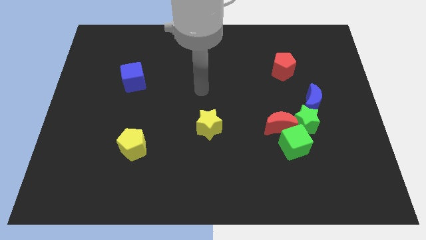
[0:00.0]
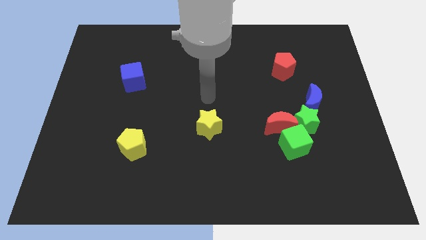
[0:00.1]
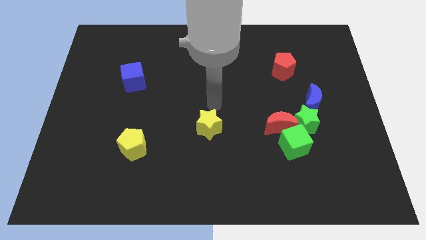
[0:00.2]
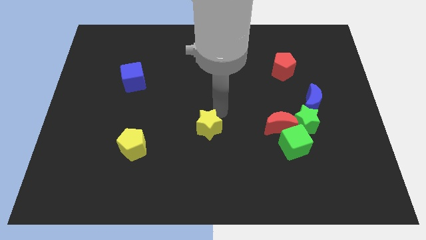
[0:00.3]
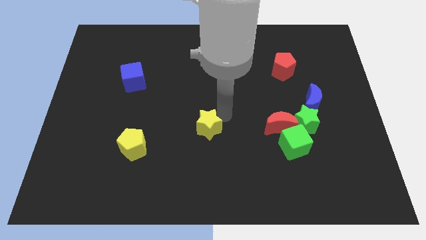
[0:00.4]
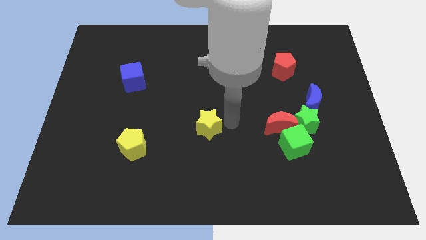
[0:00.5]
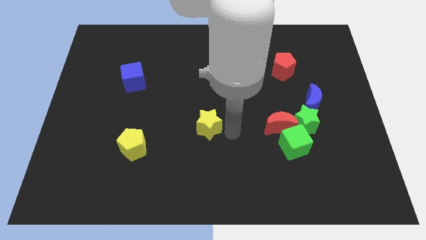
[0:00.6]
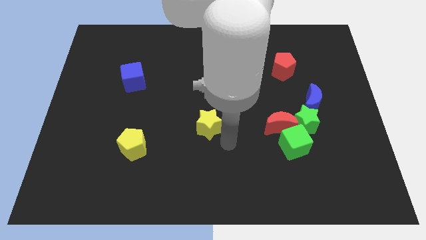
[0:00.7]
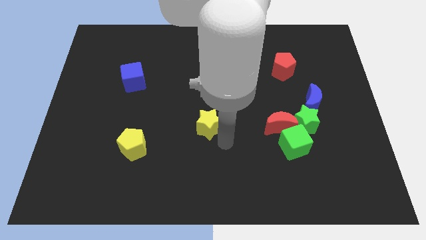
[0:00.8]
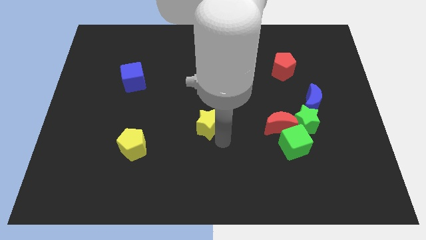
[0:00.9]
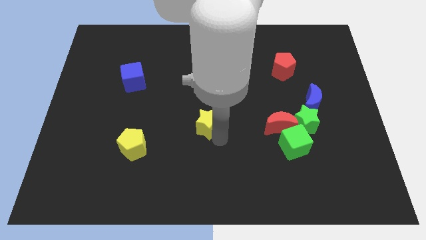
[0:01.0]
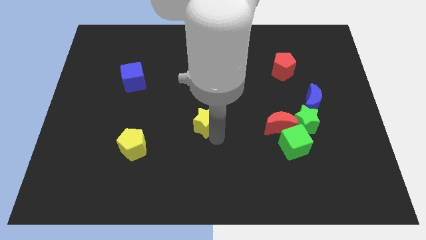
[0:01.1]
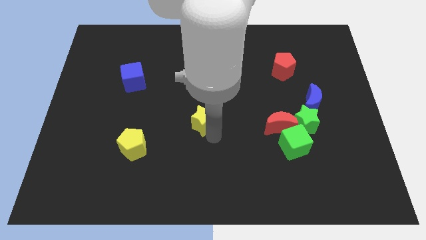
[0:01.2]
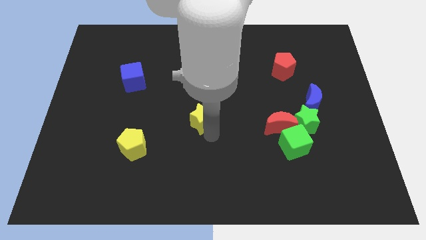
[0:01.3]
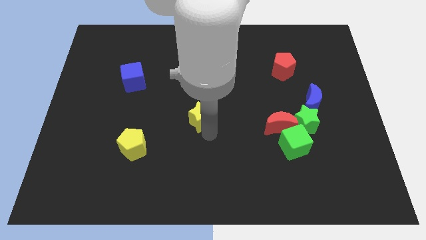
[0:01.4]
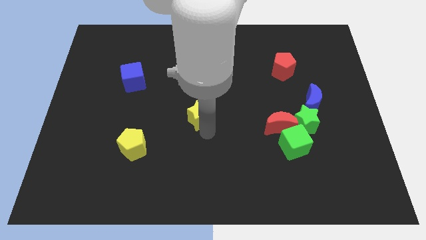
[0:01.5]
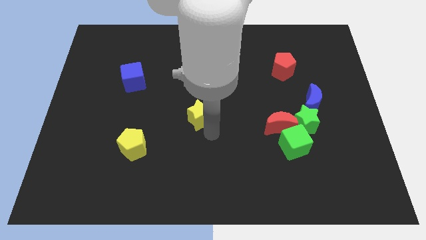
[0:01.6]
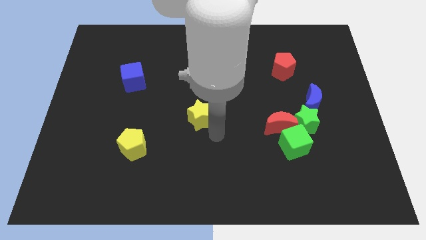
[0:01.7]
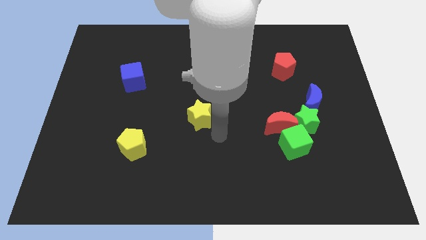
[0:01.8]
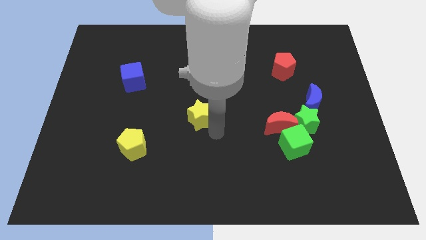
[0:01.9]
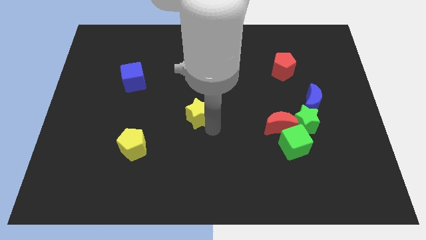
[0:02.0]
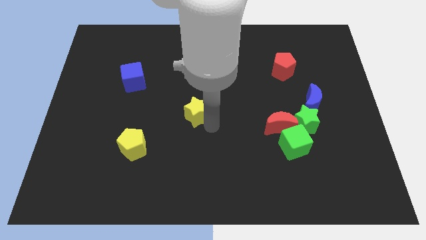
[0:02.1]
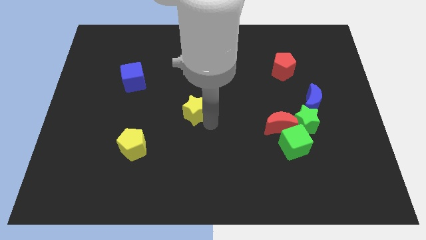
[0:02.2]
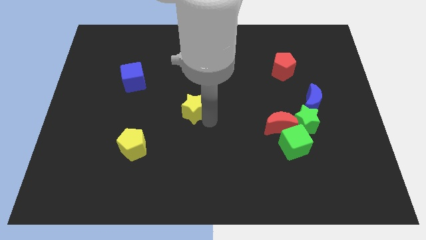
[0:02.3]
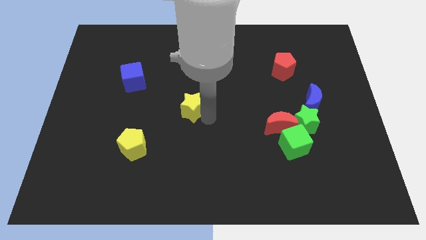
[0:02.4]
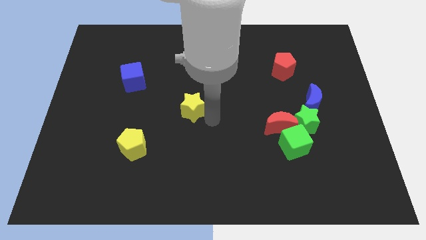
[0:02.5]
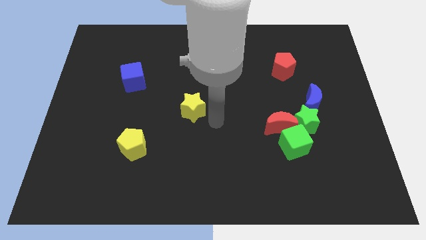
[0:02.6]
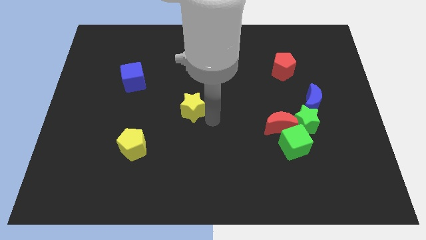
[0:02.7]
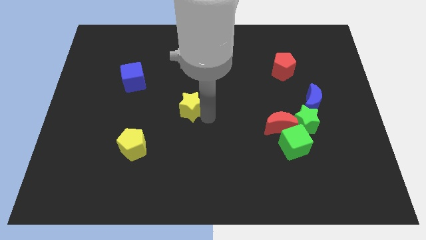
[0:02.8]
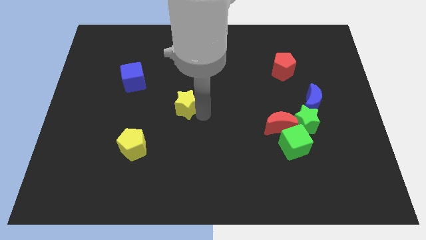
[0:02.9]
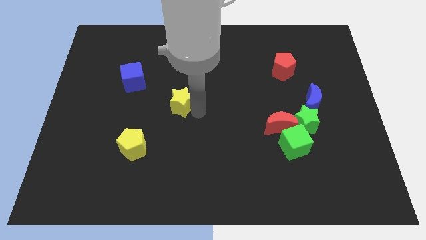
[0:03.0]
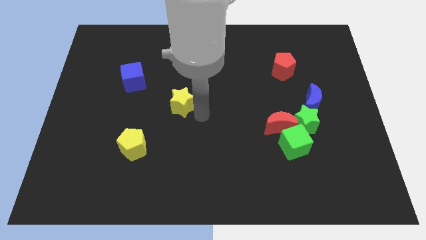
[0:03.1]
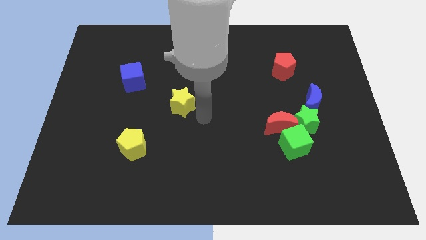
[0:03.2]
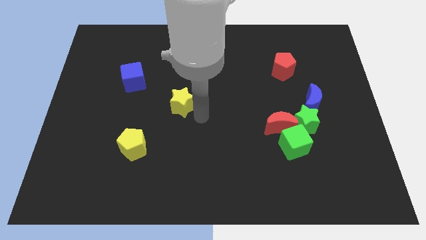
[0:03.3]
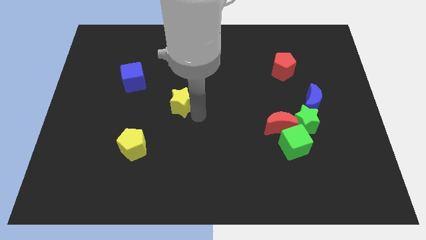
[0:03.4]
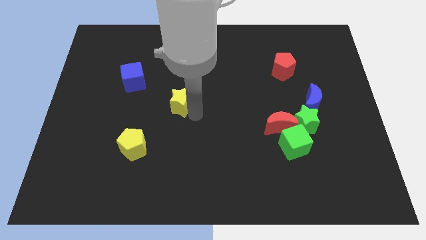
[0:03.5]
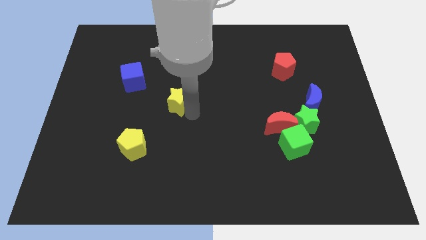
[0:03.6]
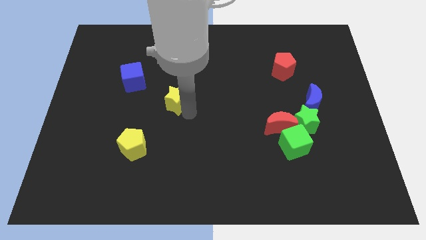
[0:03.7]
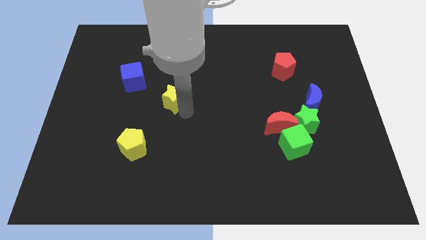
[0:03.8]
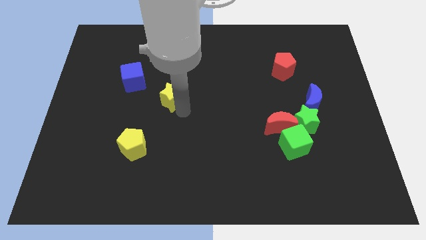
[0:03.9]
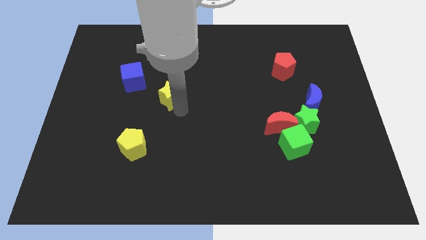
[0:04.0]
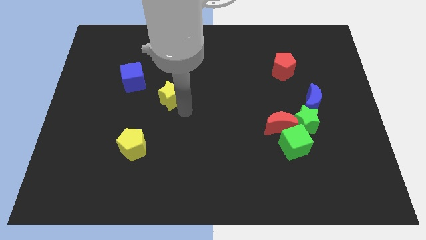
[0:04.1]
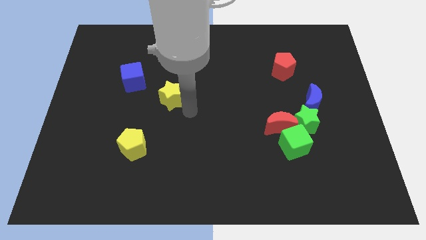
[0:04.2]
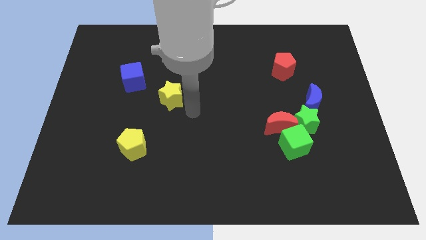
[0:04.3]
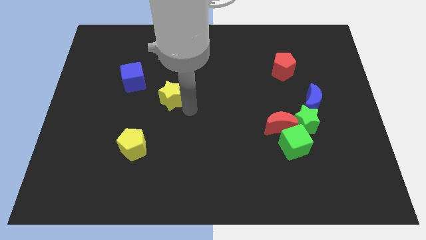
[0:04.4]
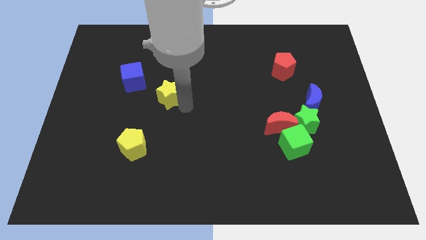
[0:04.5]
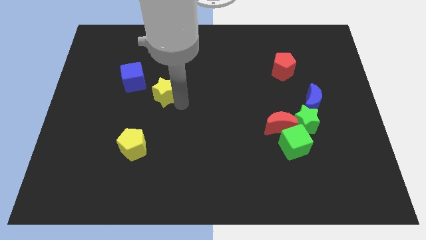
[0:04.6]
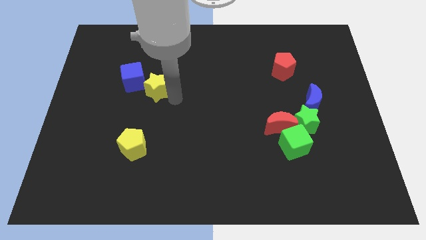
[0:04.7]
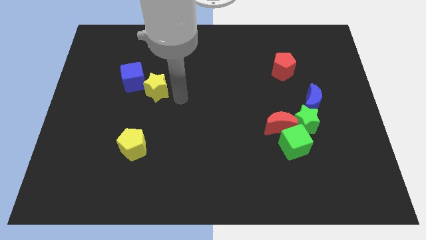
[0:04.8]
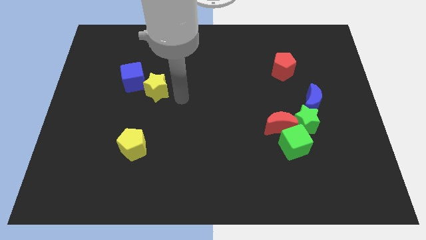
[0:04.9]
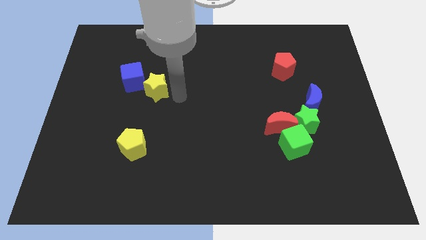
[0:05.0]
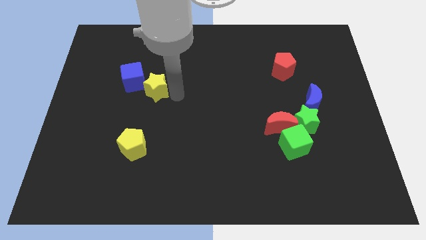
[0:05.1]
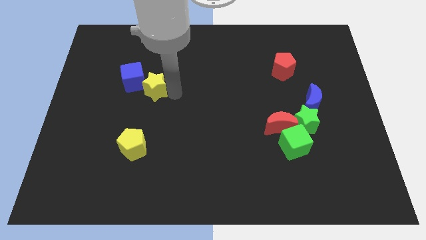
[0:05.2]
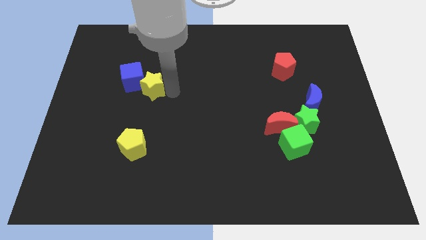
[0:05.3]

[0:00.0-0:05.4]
move the yellow star towards the blue cube

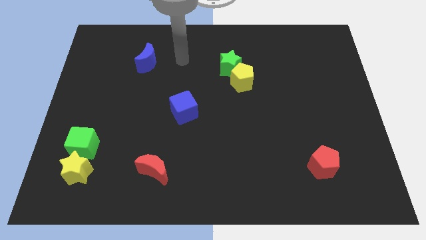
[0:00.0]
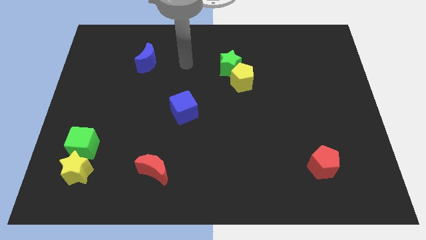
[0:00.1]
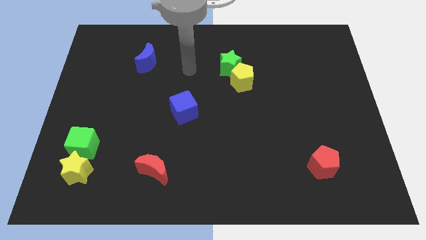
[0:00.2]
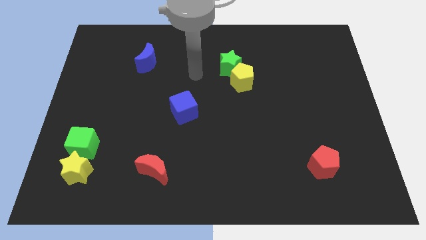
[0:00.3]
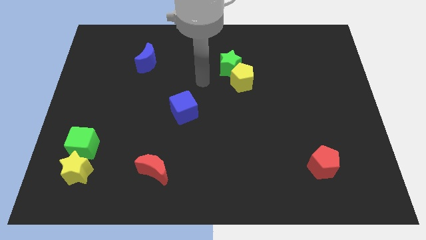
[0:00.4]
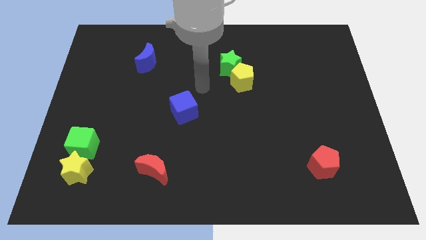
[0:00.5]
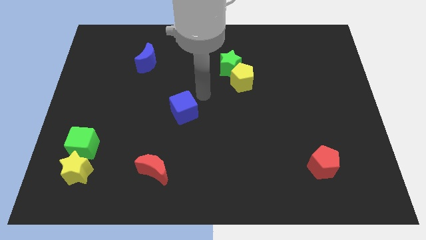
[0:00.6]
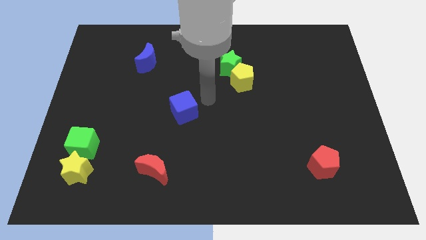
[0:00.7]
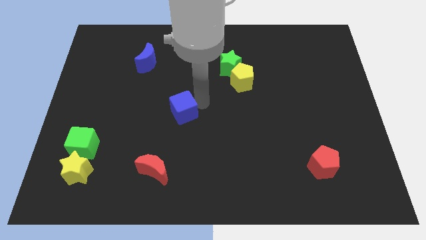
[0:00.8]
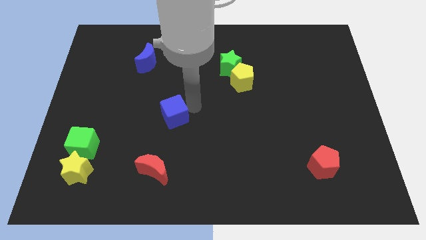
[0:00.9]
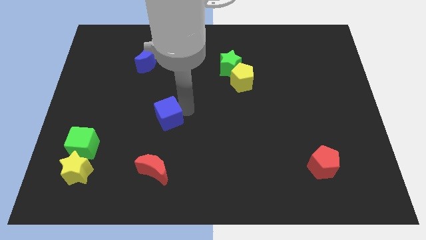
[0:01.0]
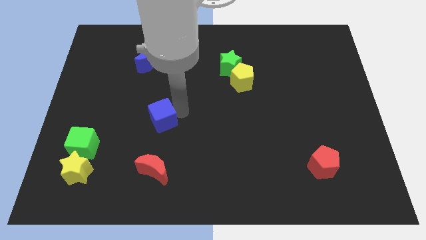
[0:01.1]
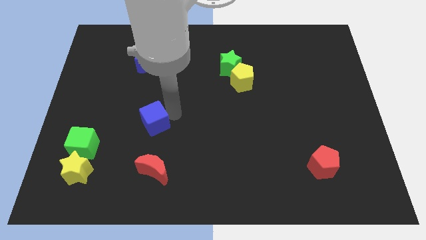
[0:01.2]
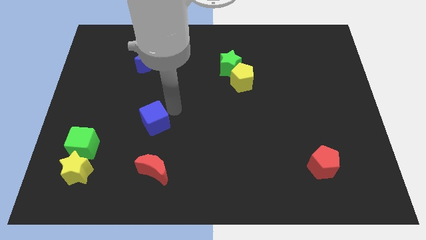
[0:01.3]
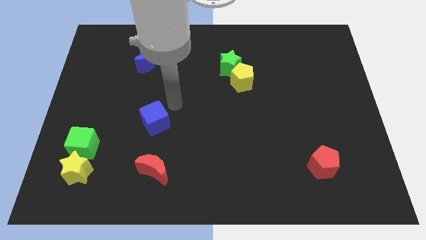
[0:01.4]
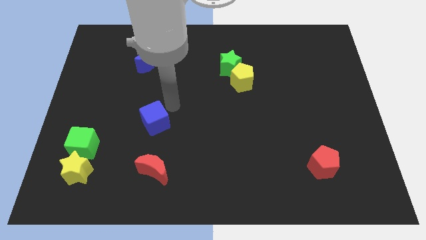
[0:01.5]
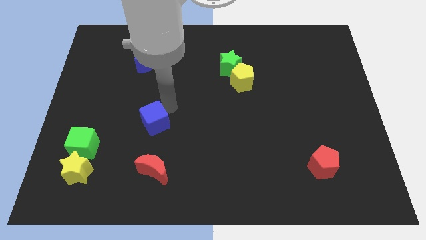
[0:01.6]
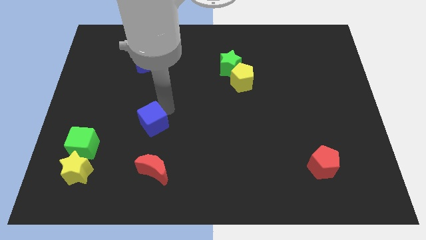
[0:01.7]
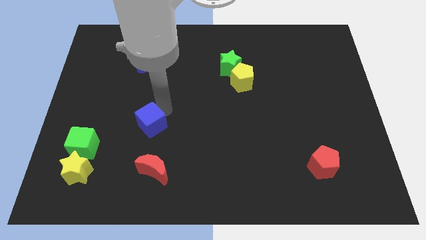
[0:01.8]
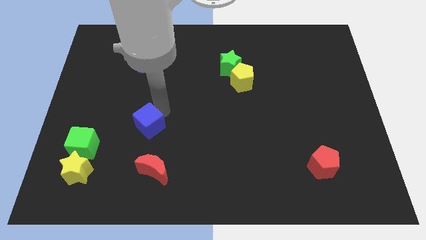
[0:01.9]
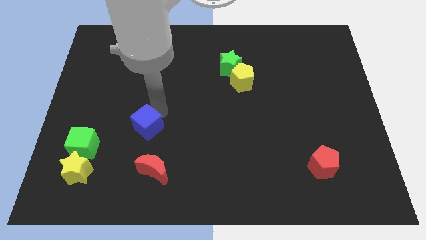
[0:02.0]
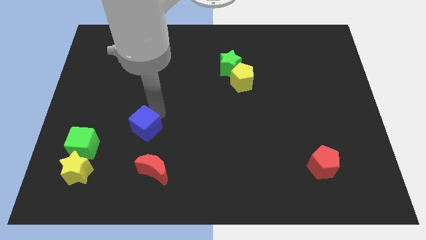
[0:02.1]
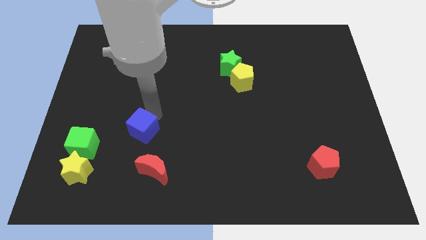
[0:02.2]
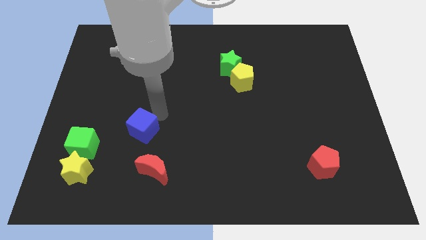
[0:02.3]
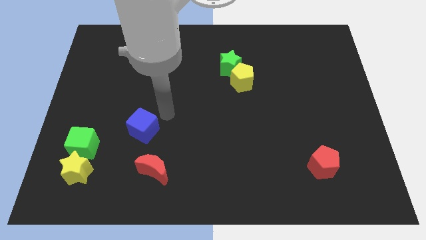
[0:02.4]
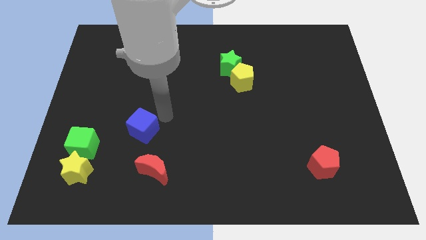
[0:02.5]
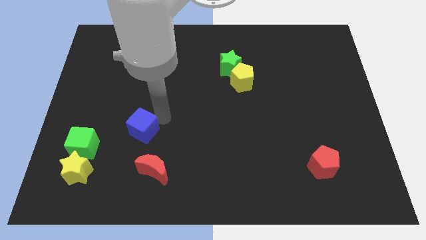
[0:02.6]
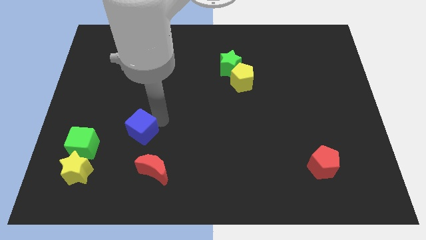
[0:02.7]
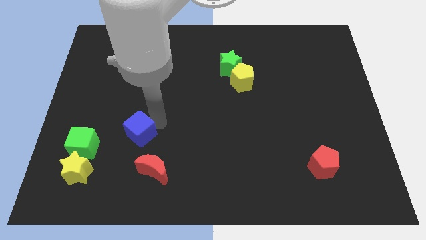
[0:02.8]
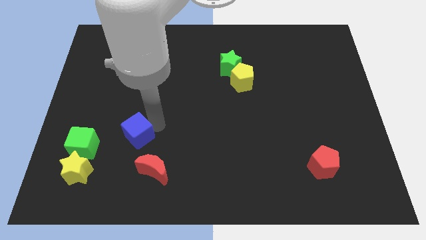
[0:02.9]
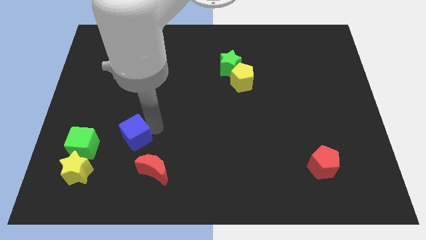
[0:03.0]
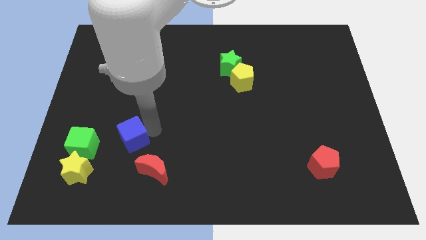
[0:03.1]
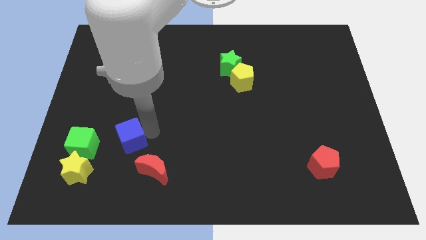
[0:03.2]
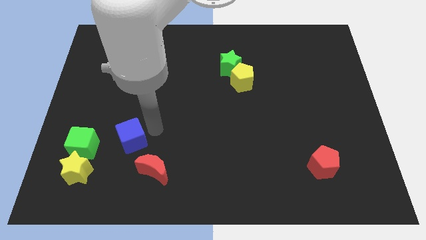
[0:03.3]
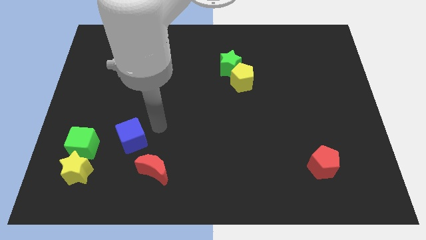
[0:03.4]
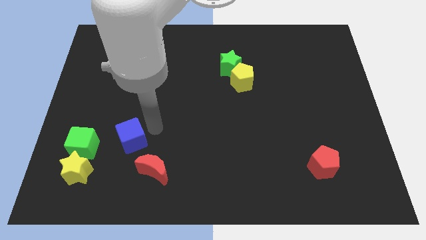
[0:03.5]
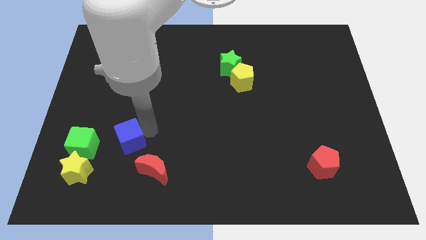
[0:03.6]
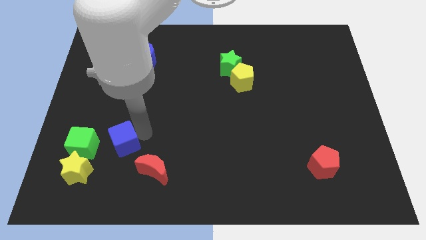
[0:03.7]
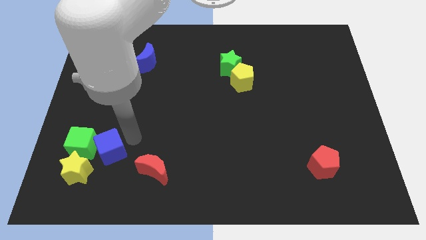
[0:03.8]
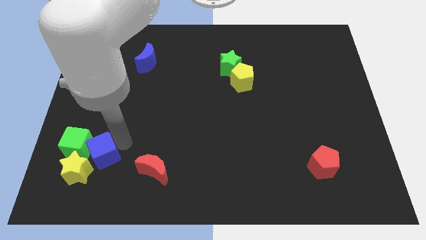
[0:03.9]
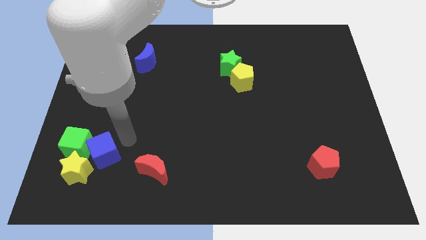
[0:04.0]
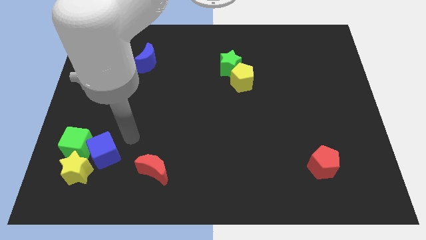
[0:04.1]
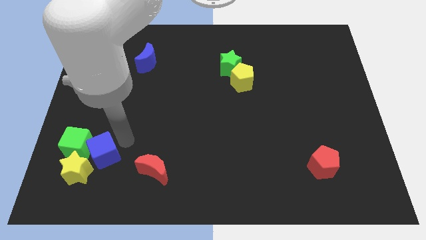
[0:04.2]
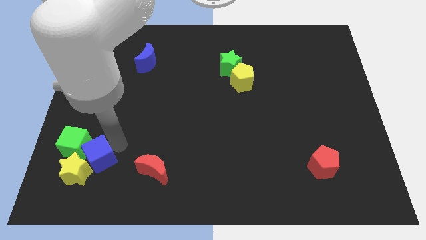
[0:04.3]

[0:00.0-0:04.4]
push the blue cube next to the yellow star
